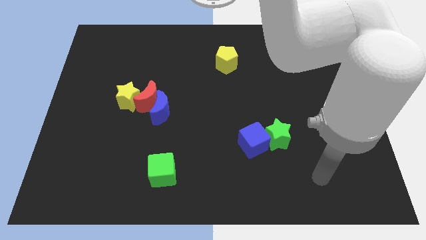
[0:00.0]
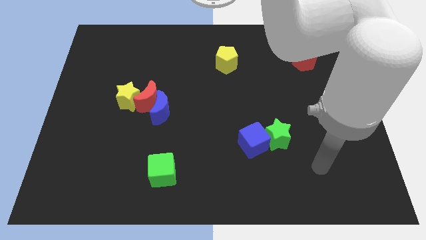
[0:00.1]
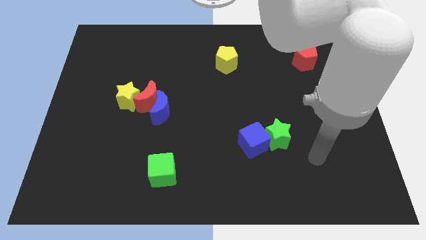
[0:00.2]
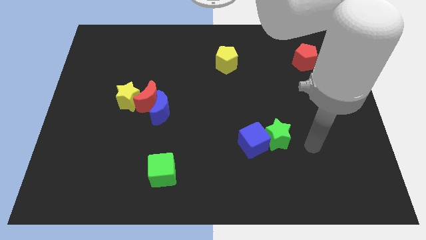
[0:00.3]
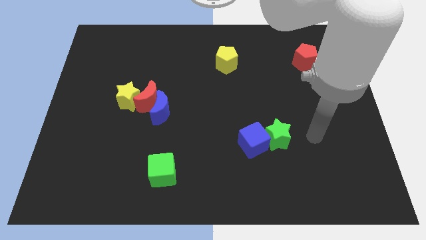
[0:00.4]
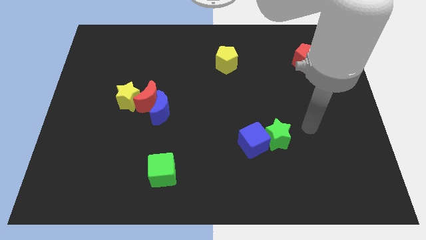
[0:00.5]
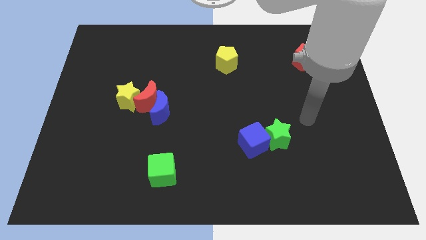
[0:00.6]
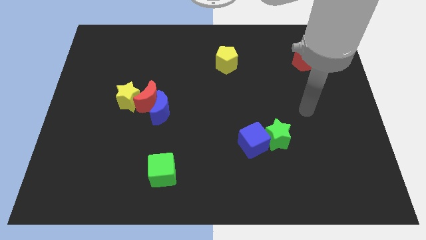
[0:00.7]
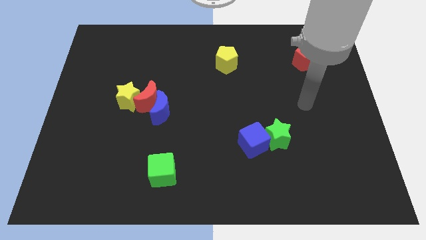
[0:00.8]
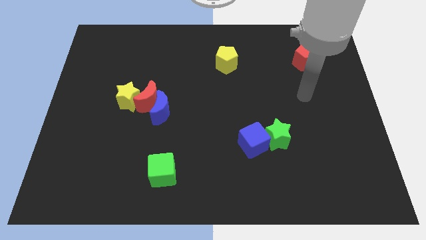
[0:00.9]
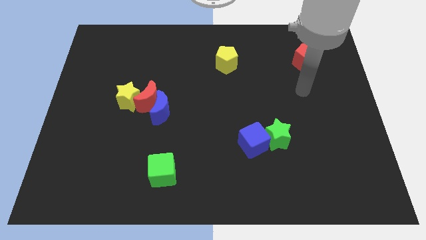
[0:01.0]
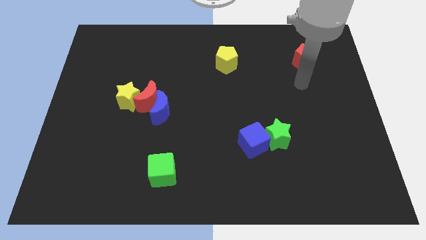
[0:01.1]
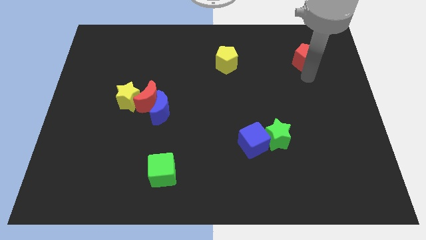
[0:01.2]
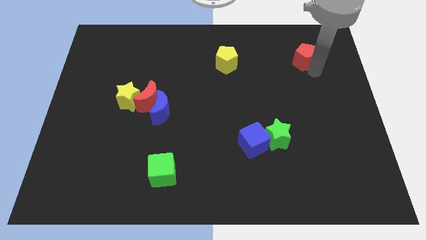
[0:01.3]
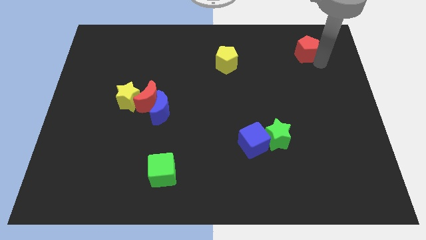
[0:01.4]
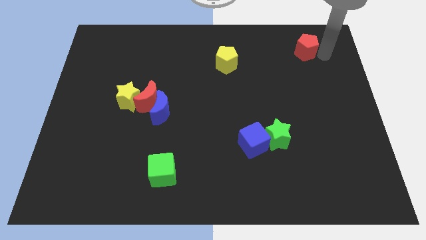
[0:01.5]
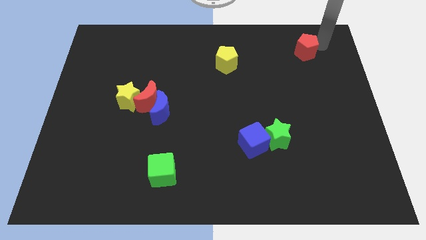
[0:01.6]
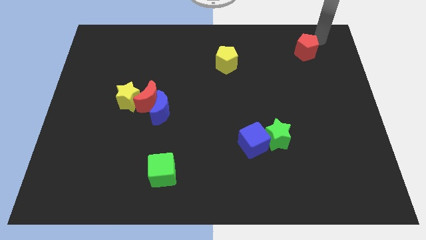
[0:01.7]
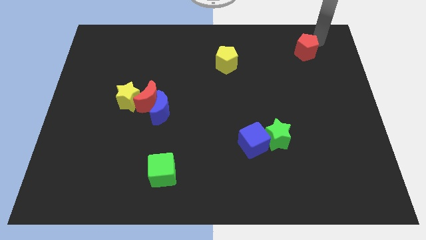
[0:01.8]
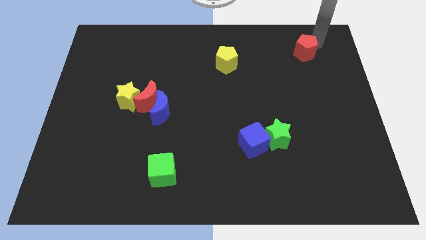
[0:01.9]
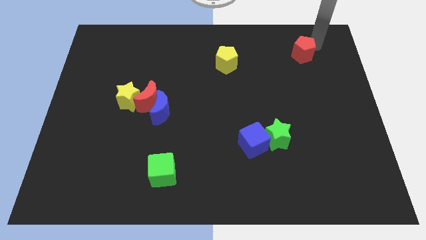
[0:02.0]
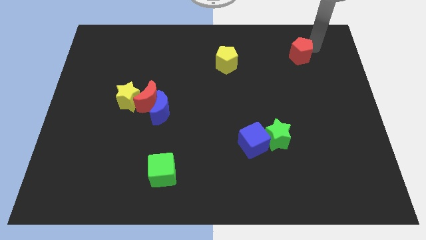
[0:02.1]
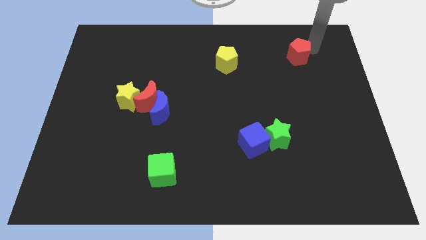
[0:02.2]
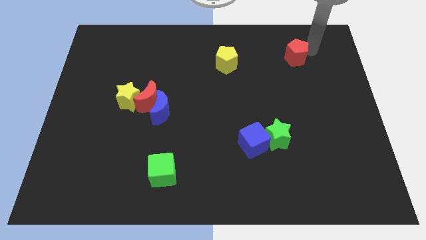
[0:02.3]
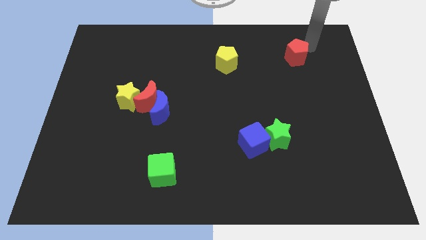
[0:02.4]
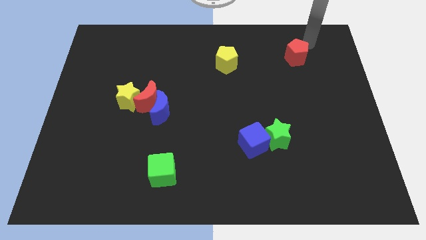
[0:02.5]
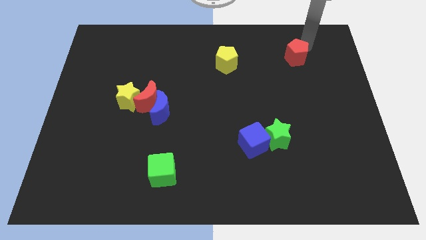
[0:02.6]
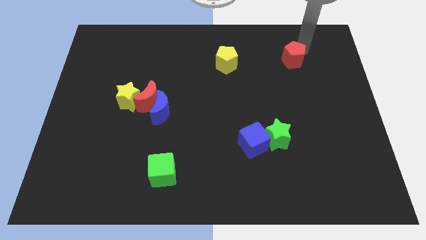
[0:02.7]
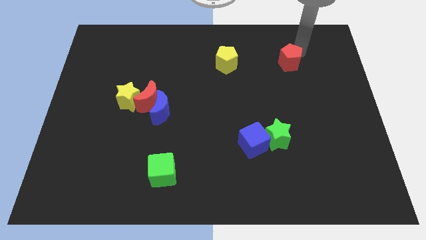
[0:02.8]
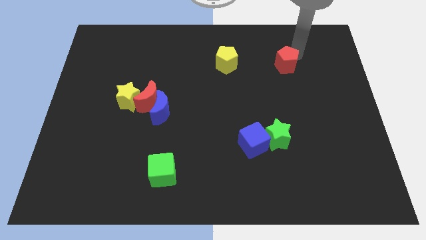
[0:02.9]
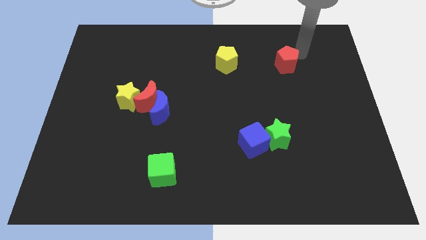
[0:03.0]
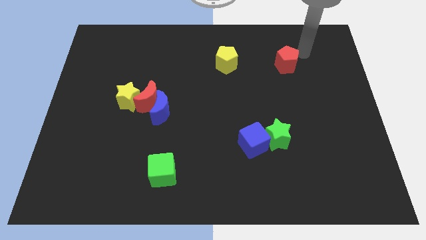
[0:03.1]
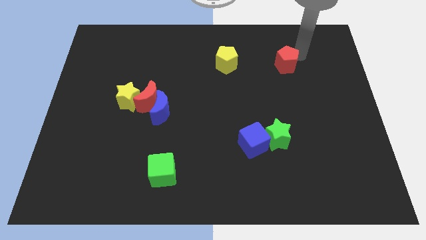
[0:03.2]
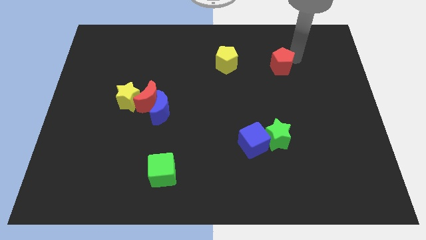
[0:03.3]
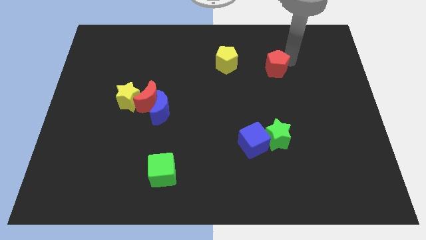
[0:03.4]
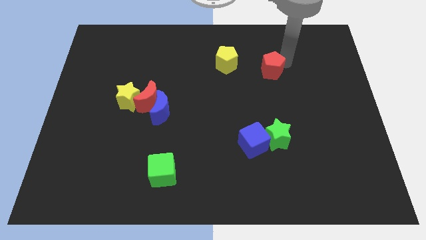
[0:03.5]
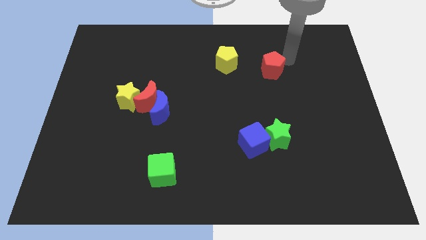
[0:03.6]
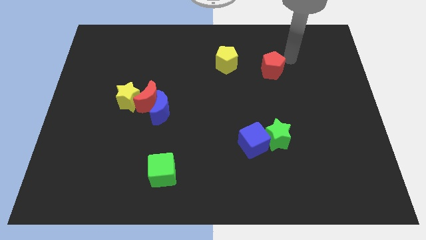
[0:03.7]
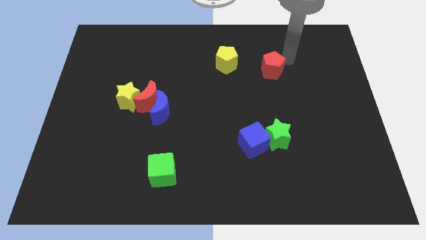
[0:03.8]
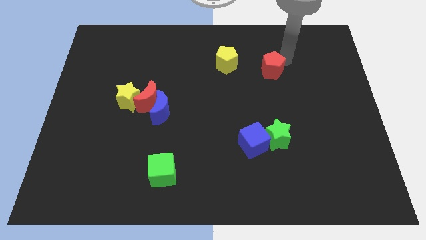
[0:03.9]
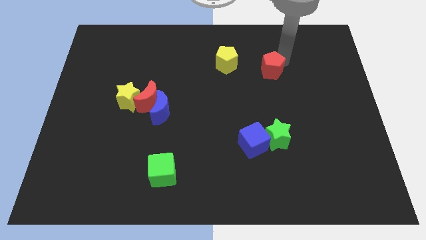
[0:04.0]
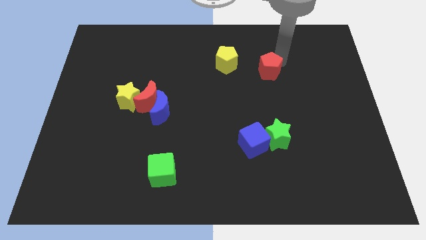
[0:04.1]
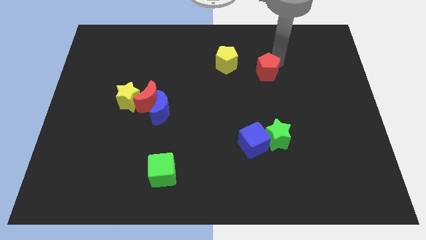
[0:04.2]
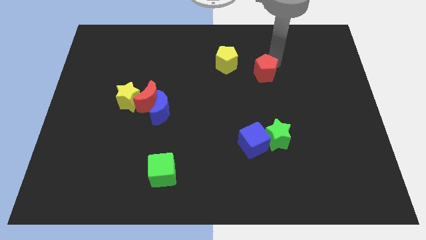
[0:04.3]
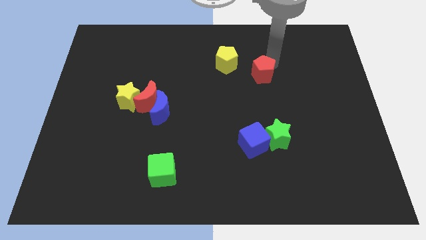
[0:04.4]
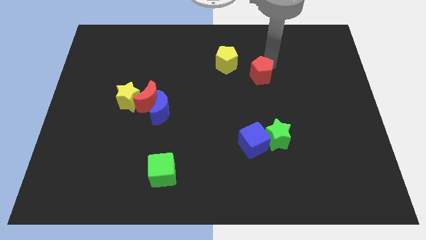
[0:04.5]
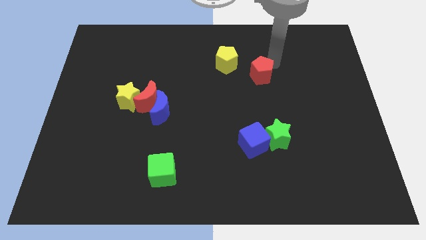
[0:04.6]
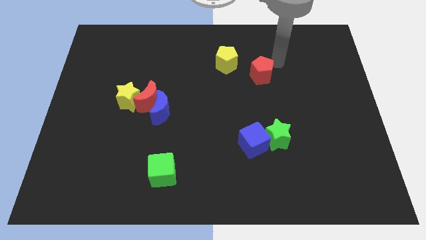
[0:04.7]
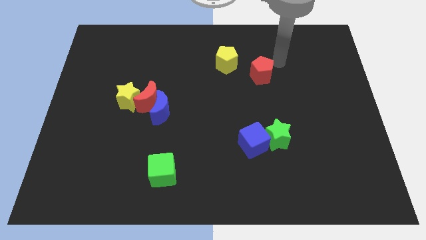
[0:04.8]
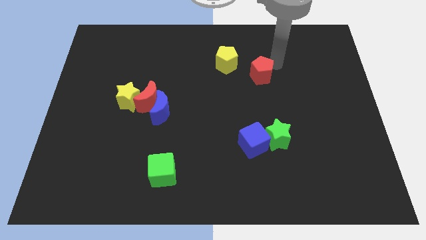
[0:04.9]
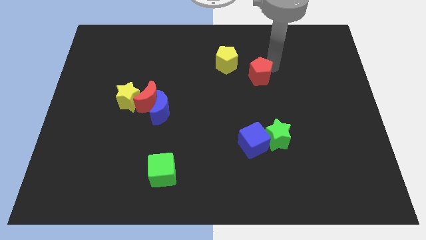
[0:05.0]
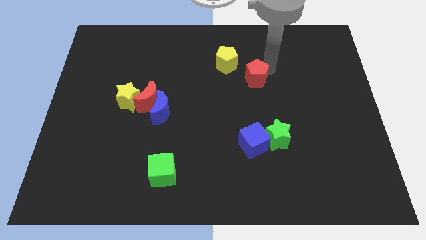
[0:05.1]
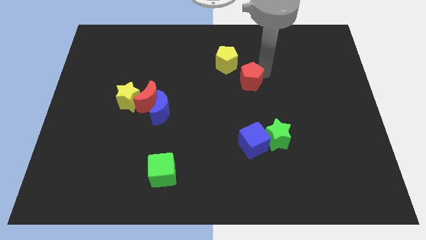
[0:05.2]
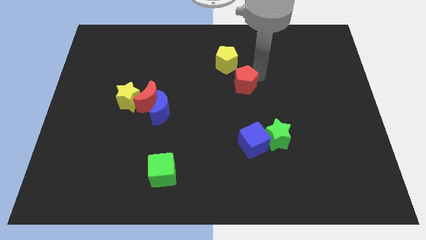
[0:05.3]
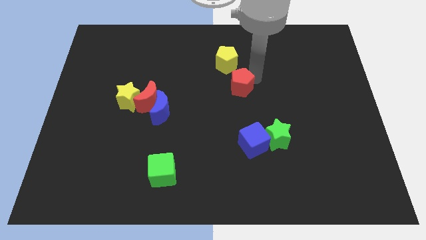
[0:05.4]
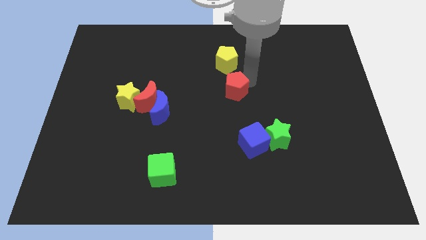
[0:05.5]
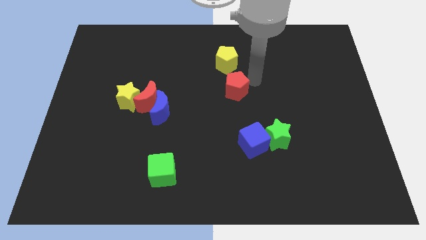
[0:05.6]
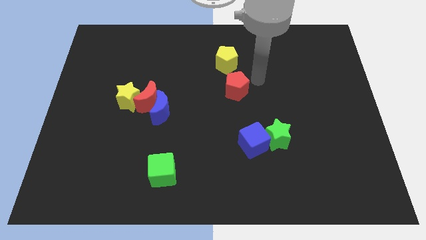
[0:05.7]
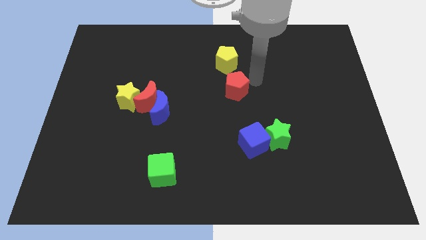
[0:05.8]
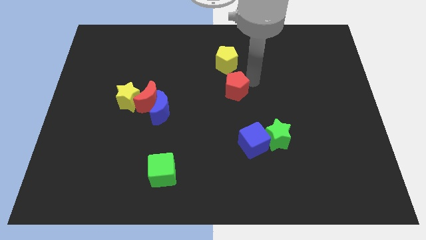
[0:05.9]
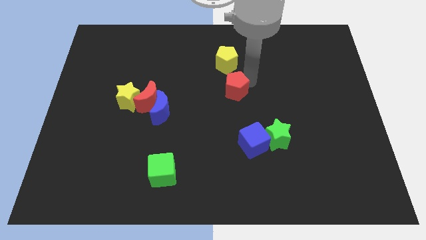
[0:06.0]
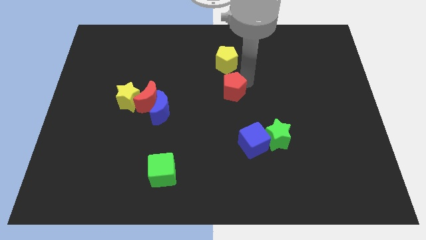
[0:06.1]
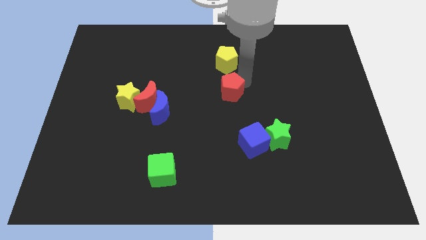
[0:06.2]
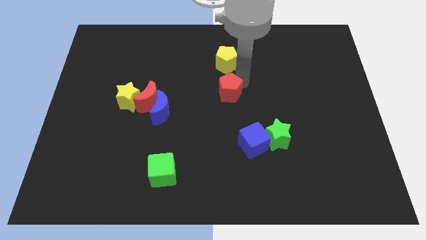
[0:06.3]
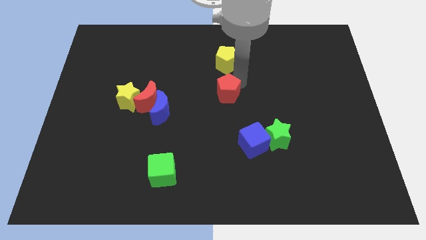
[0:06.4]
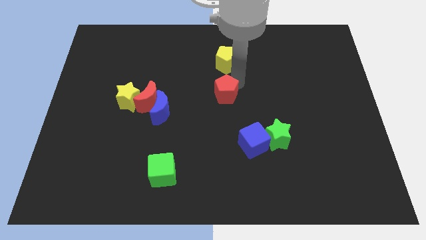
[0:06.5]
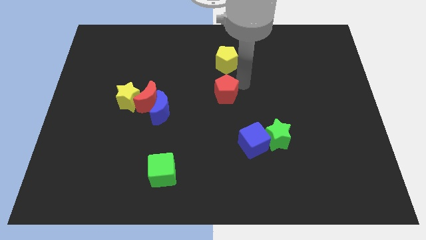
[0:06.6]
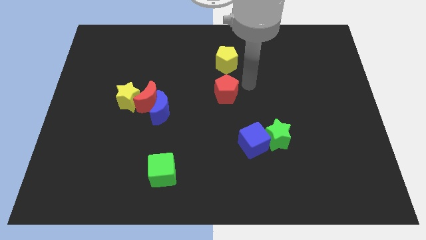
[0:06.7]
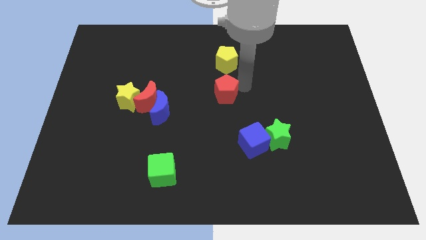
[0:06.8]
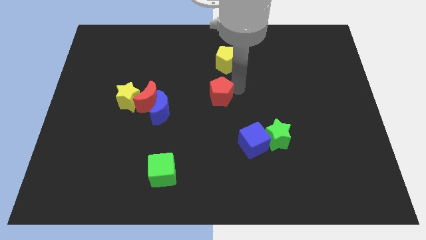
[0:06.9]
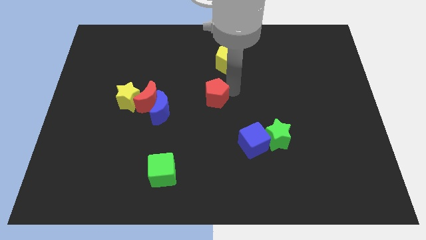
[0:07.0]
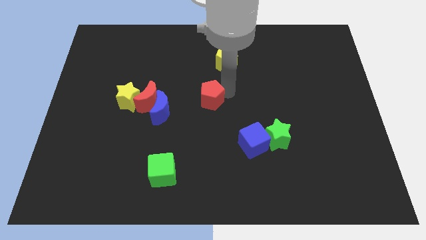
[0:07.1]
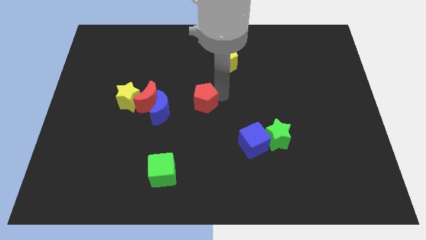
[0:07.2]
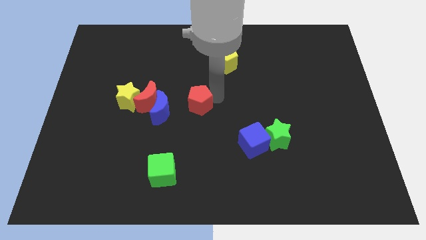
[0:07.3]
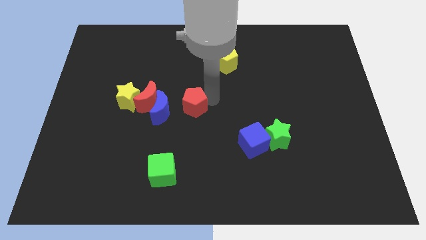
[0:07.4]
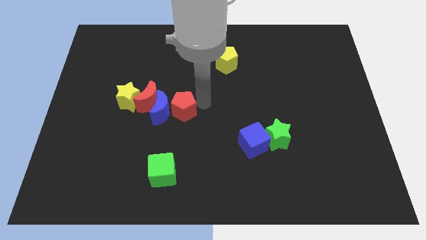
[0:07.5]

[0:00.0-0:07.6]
push the red pentagon close to the blue moon

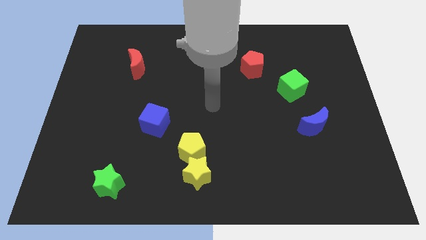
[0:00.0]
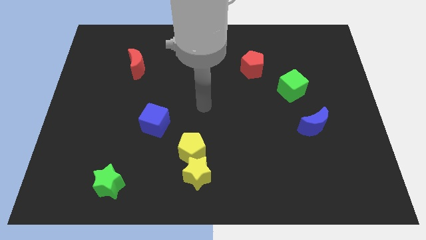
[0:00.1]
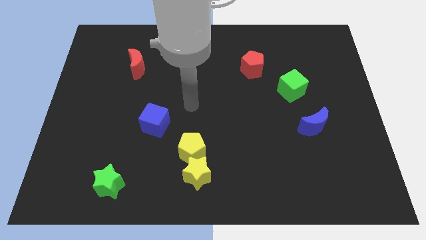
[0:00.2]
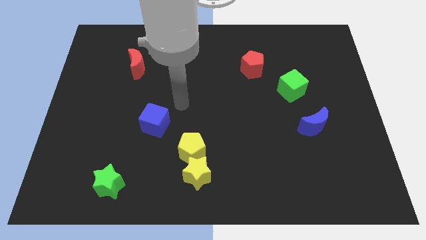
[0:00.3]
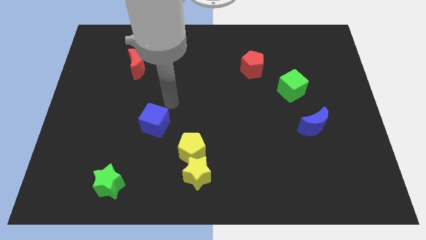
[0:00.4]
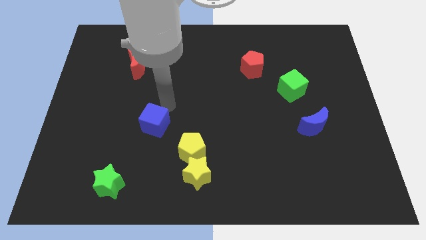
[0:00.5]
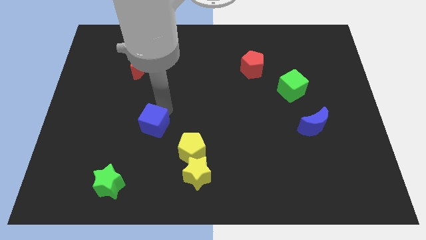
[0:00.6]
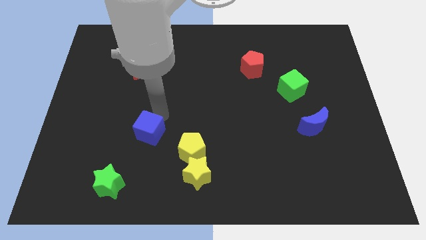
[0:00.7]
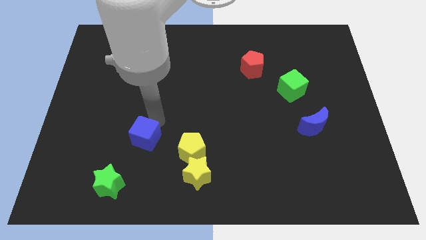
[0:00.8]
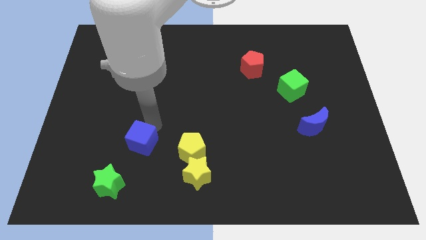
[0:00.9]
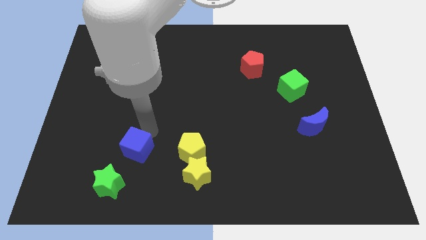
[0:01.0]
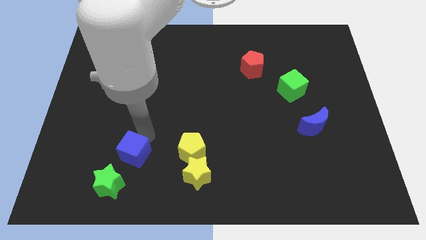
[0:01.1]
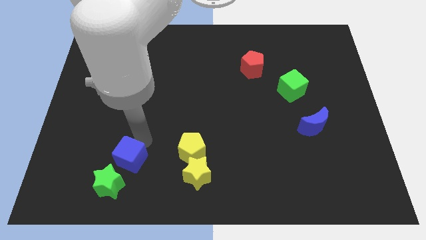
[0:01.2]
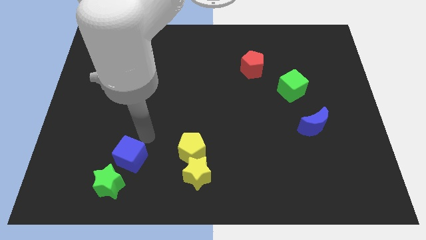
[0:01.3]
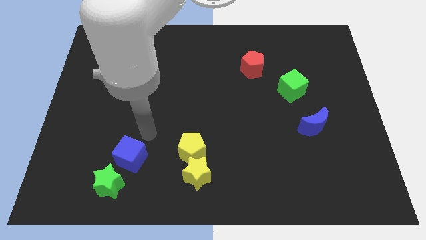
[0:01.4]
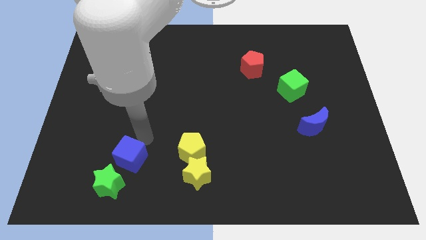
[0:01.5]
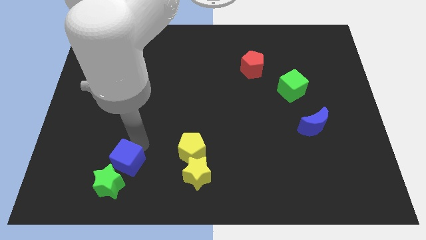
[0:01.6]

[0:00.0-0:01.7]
push the blue cube next to the green star
